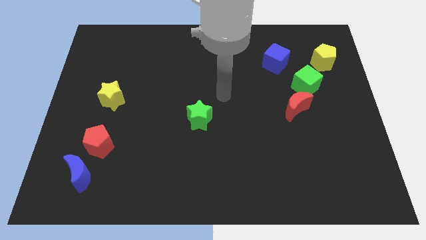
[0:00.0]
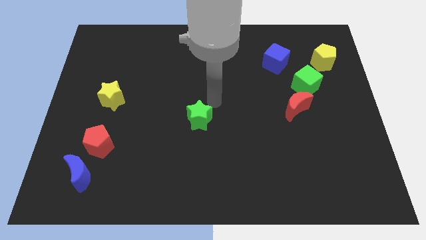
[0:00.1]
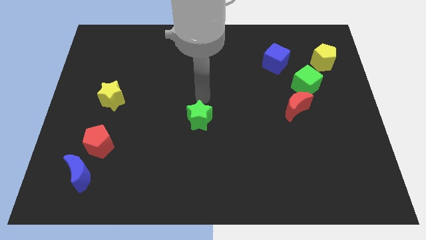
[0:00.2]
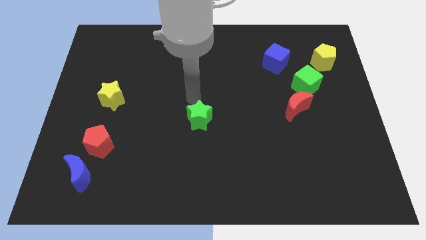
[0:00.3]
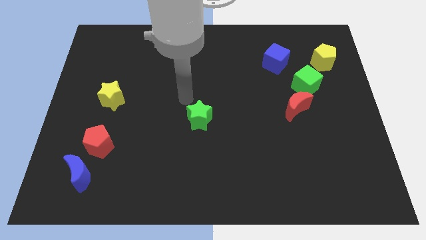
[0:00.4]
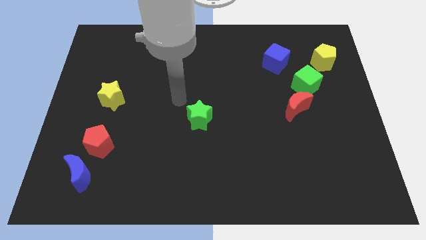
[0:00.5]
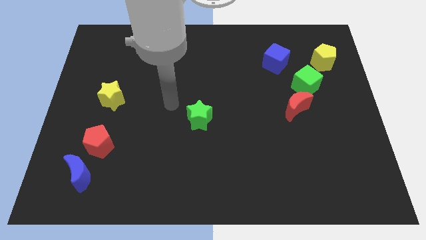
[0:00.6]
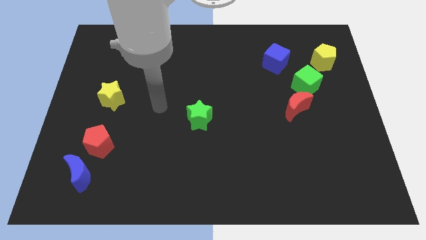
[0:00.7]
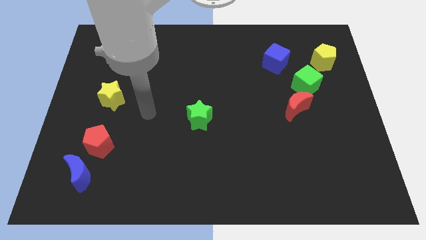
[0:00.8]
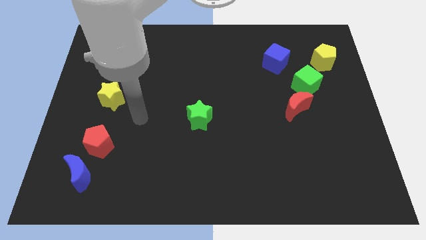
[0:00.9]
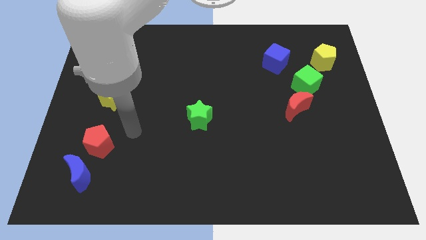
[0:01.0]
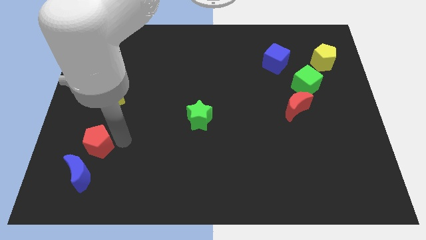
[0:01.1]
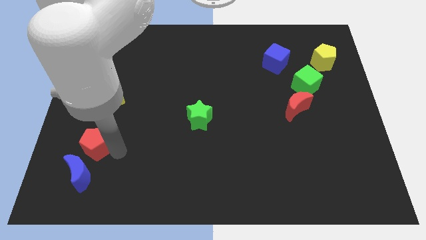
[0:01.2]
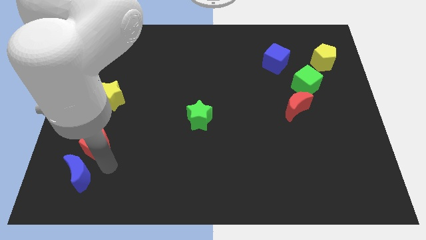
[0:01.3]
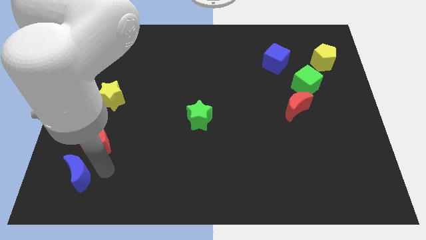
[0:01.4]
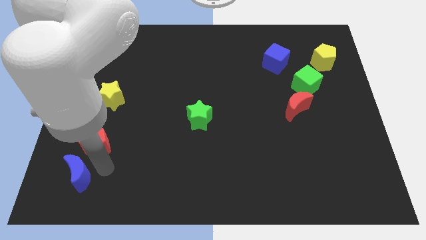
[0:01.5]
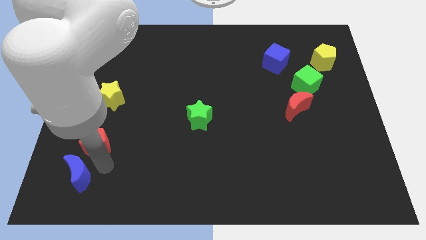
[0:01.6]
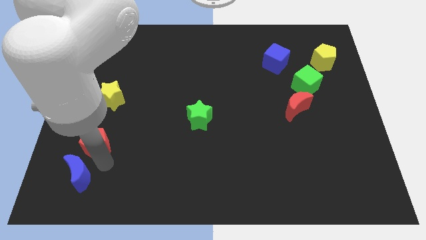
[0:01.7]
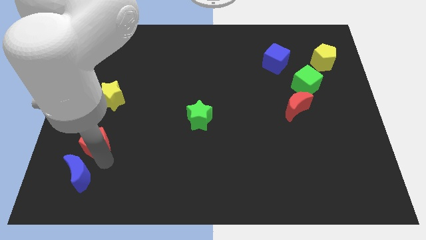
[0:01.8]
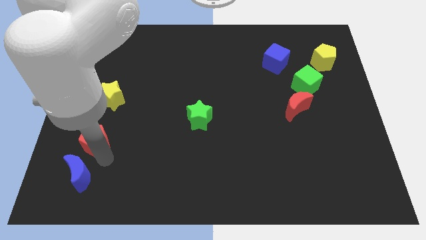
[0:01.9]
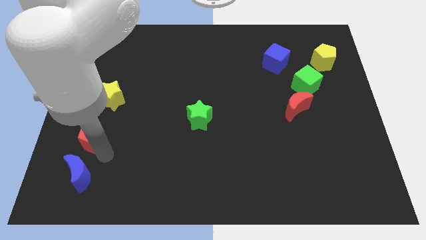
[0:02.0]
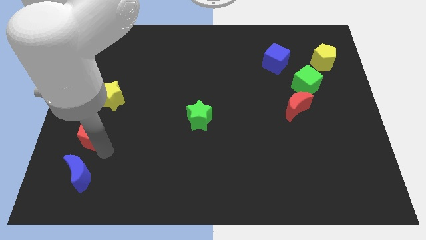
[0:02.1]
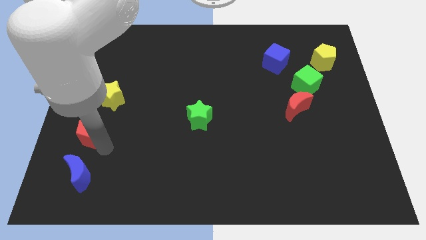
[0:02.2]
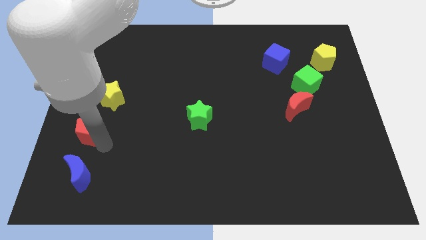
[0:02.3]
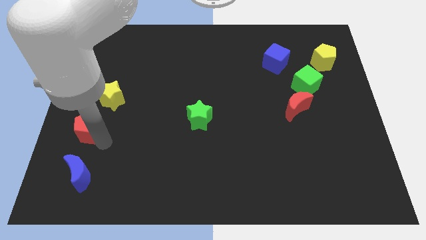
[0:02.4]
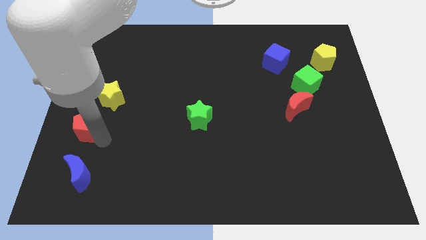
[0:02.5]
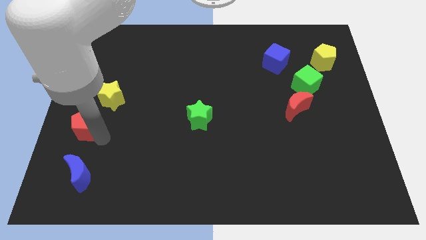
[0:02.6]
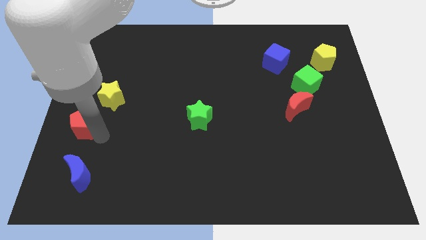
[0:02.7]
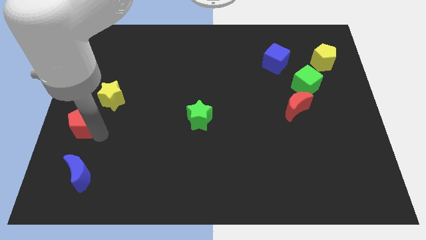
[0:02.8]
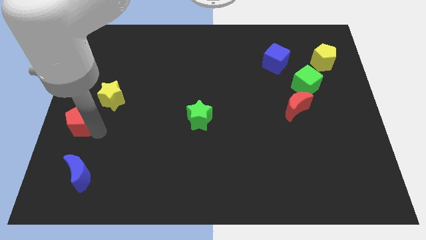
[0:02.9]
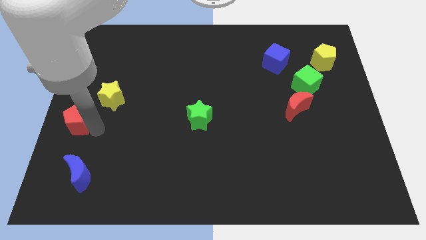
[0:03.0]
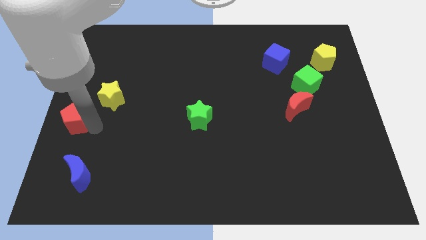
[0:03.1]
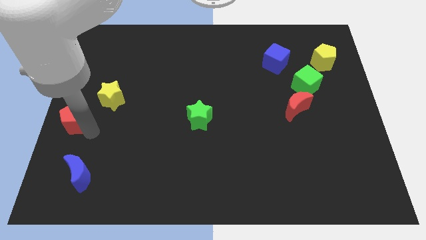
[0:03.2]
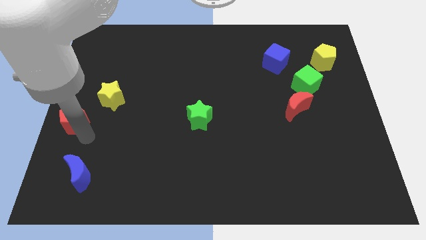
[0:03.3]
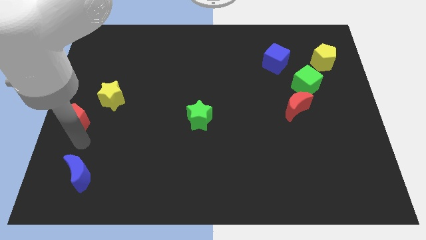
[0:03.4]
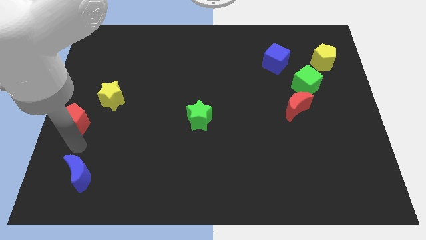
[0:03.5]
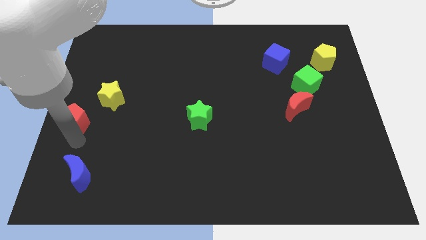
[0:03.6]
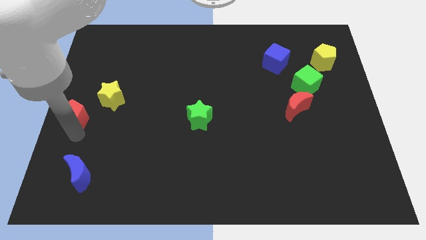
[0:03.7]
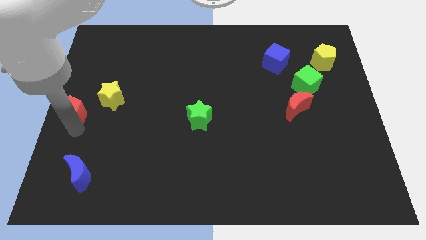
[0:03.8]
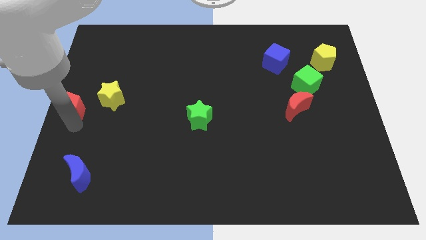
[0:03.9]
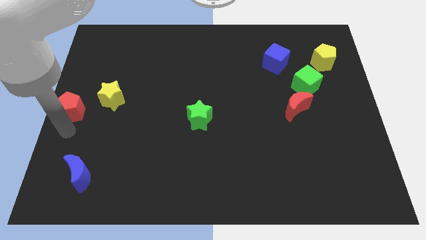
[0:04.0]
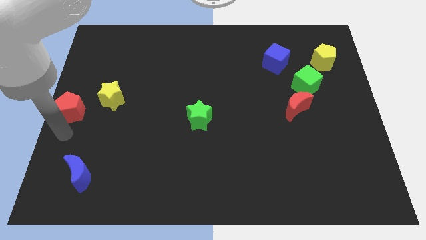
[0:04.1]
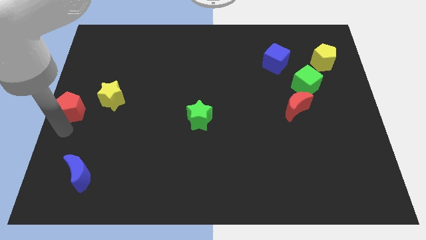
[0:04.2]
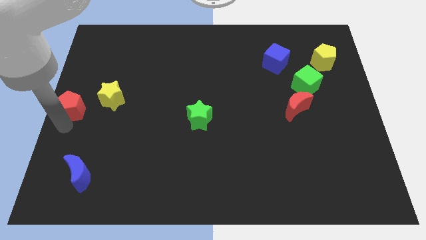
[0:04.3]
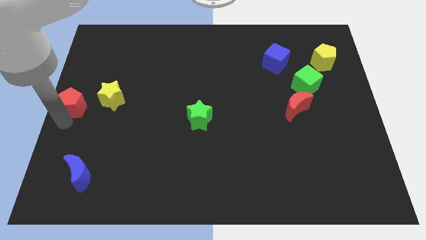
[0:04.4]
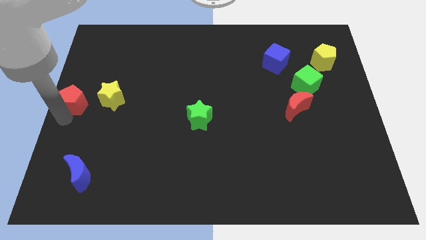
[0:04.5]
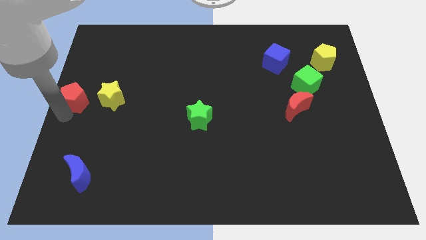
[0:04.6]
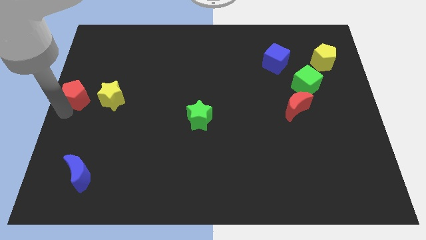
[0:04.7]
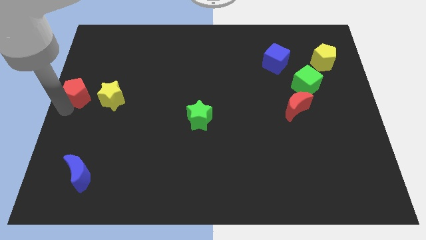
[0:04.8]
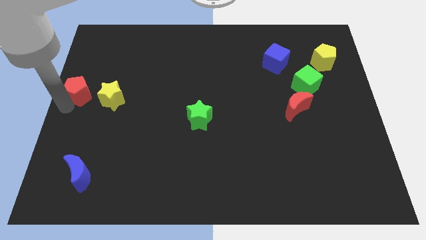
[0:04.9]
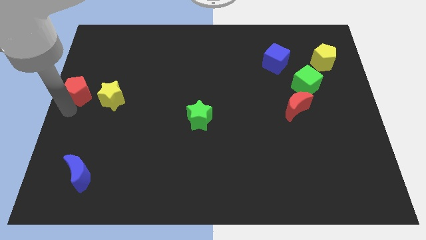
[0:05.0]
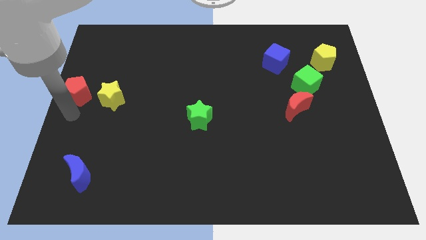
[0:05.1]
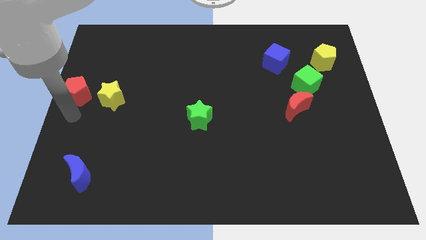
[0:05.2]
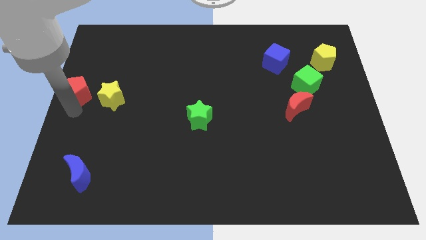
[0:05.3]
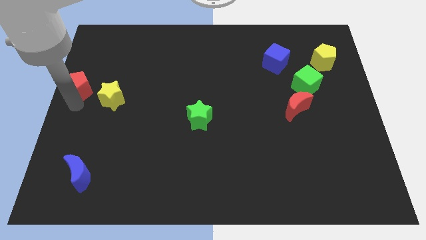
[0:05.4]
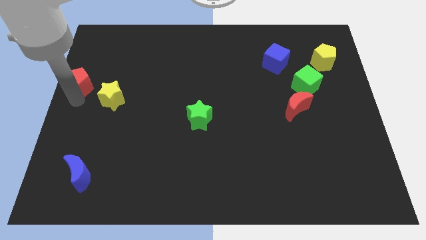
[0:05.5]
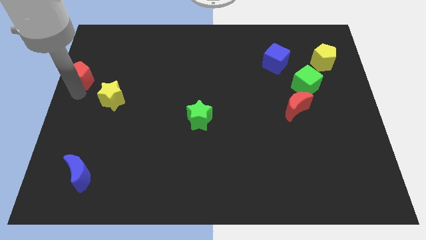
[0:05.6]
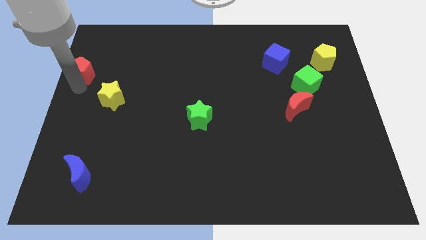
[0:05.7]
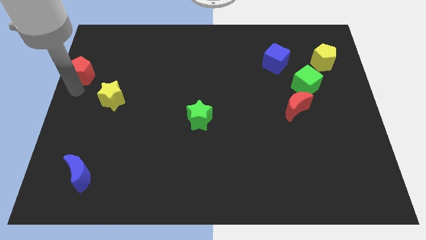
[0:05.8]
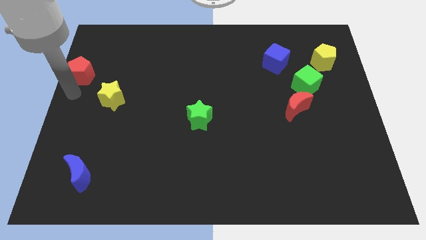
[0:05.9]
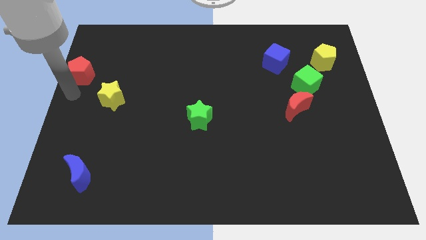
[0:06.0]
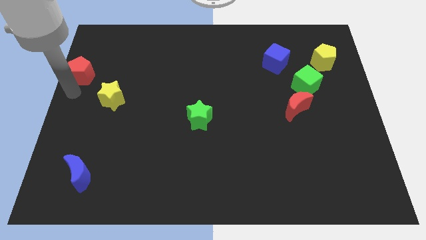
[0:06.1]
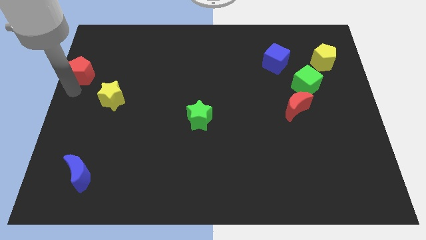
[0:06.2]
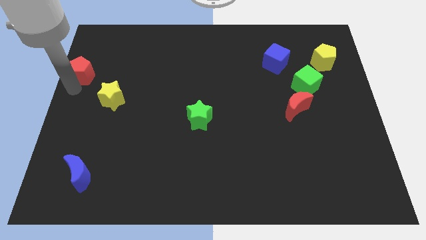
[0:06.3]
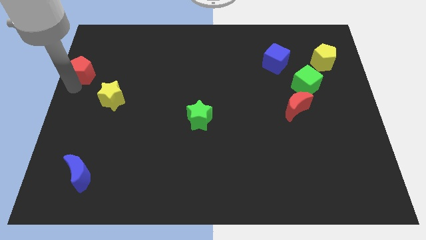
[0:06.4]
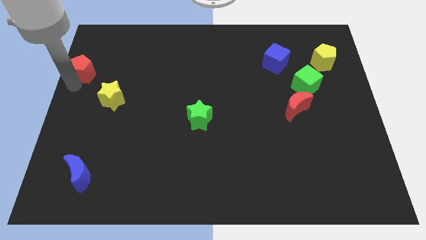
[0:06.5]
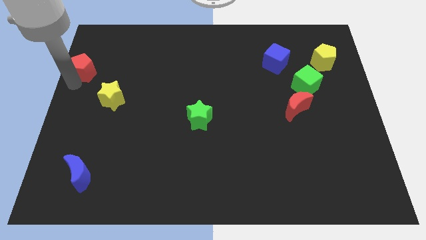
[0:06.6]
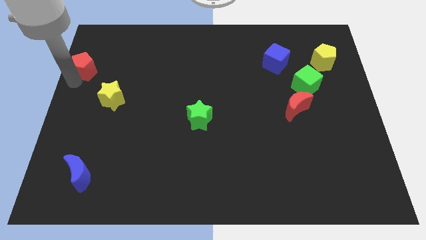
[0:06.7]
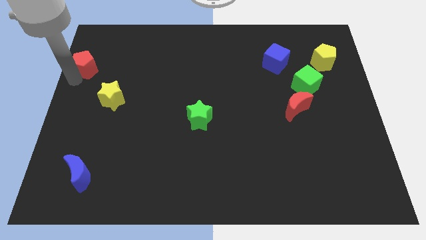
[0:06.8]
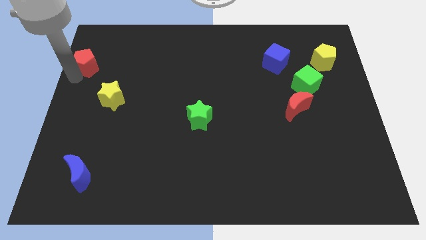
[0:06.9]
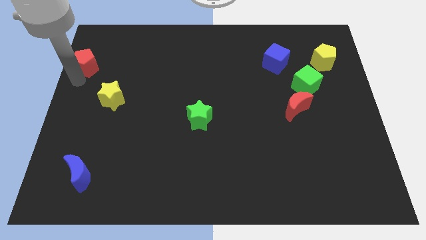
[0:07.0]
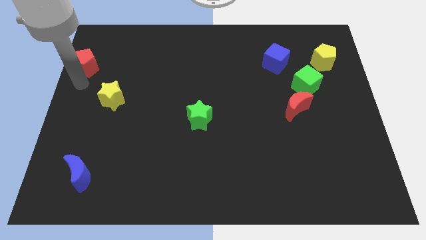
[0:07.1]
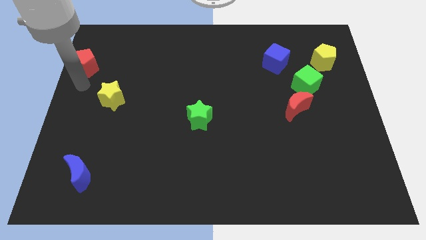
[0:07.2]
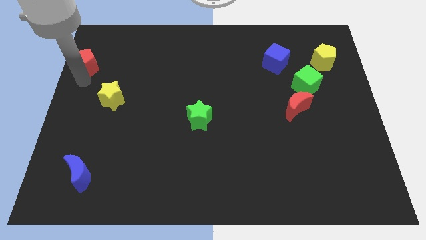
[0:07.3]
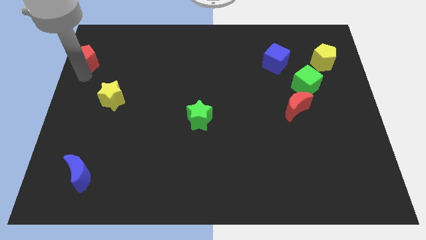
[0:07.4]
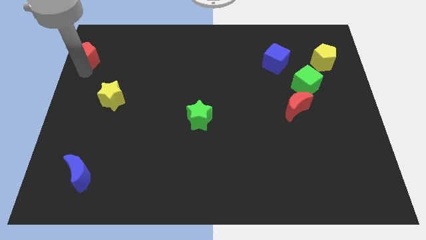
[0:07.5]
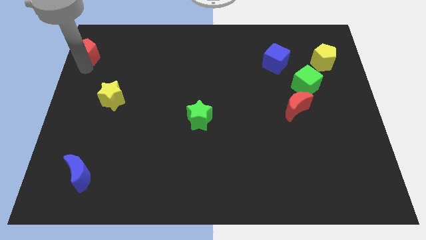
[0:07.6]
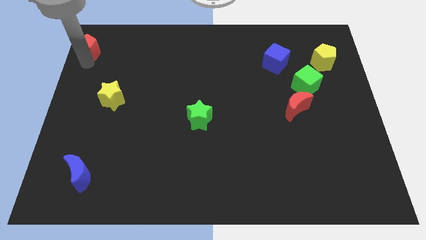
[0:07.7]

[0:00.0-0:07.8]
move the red pentagon to the top left of the board
